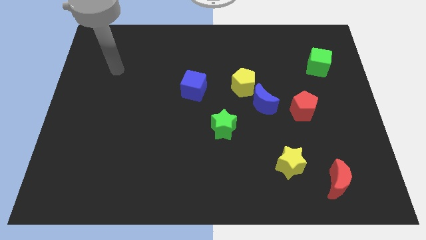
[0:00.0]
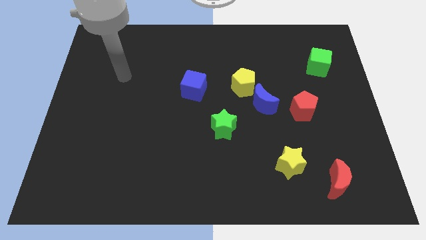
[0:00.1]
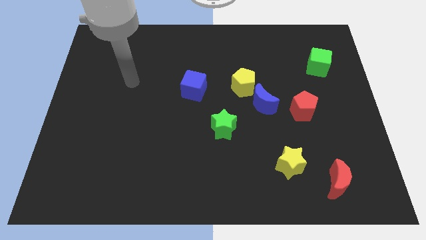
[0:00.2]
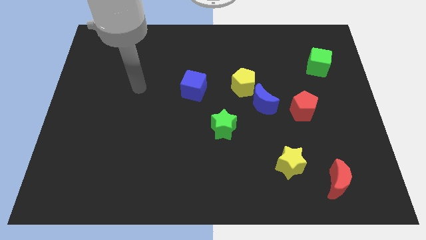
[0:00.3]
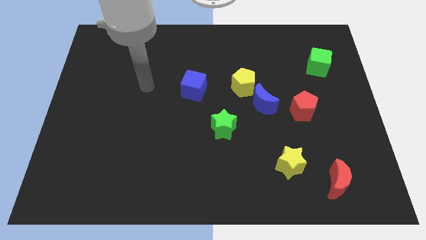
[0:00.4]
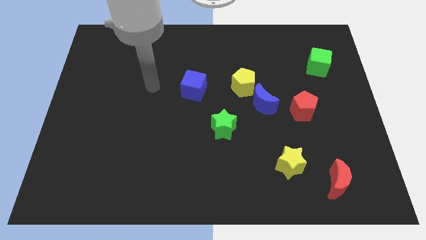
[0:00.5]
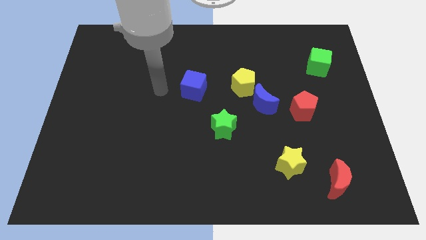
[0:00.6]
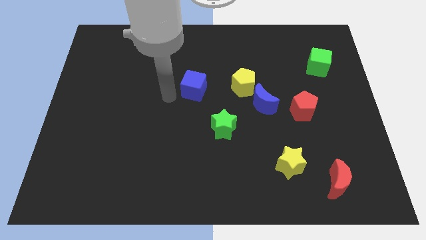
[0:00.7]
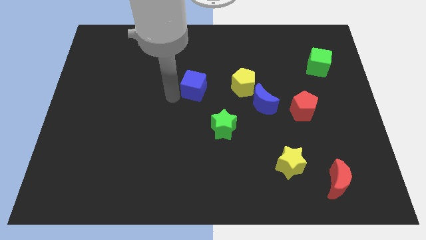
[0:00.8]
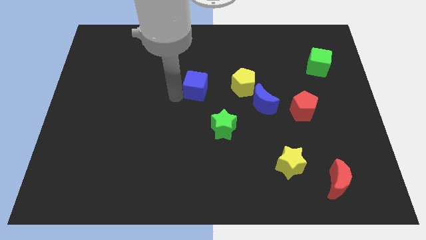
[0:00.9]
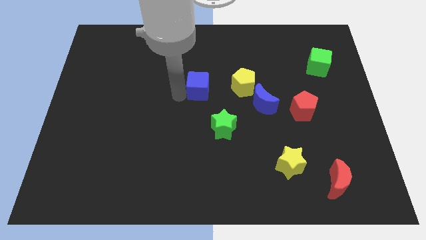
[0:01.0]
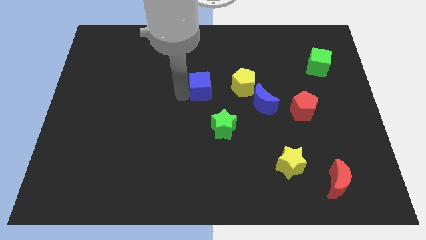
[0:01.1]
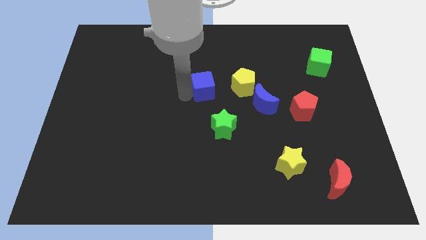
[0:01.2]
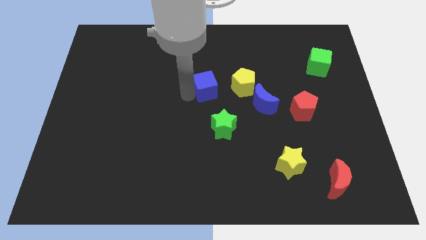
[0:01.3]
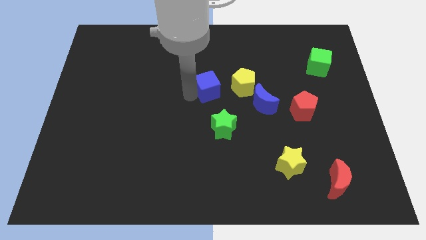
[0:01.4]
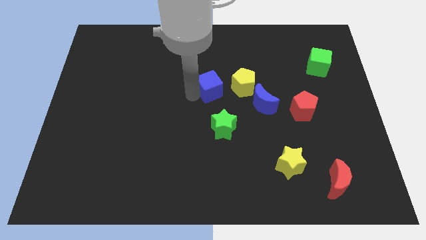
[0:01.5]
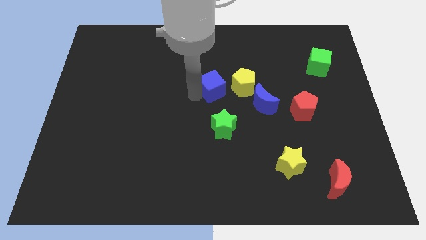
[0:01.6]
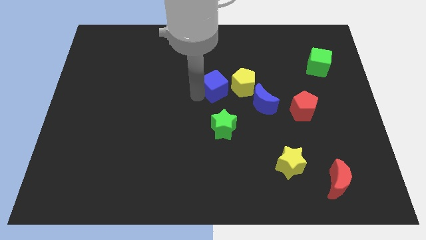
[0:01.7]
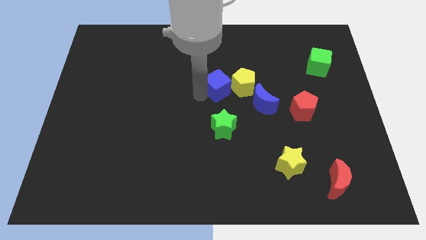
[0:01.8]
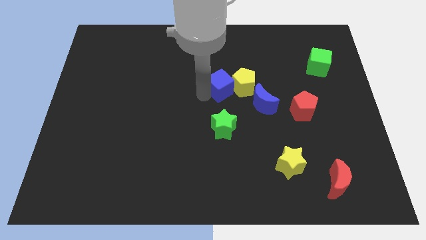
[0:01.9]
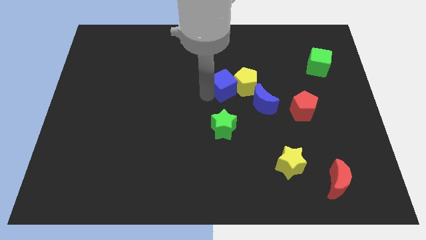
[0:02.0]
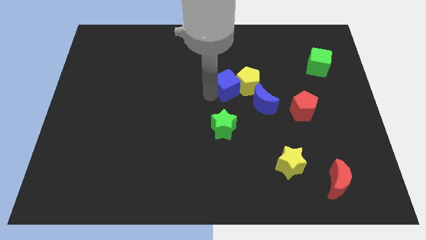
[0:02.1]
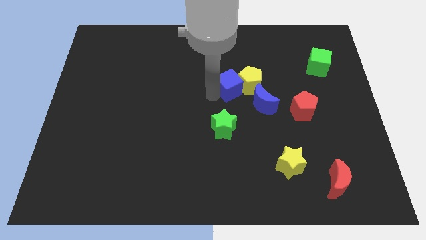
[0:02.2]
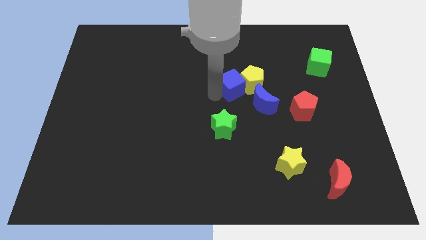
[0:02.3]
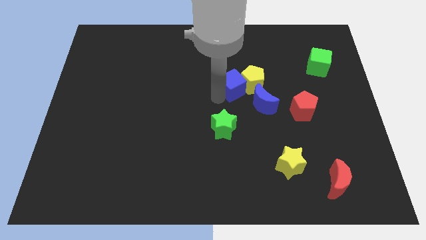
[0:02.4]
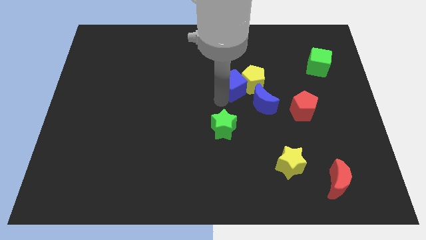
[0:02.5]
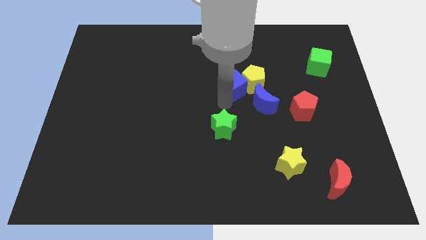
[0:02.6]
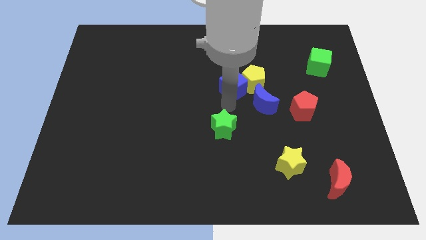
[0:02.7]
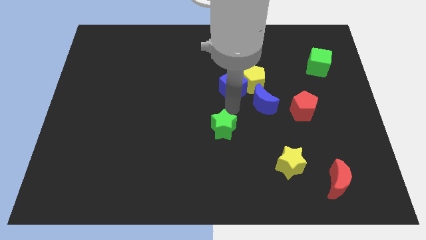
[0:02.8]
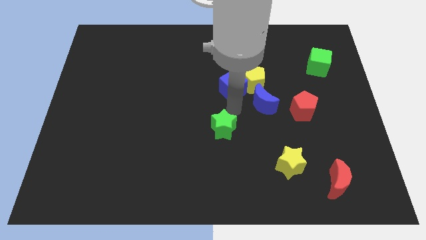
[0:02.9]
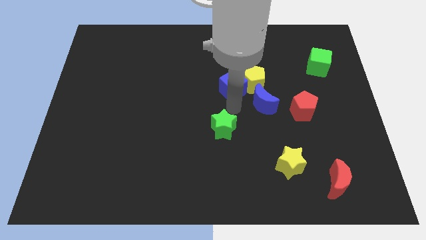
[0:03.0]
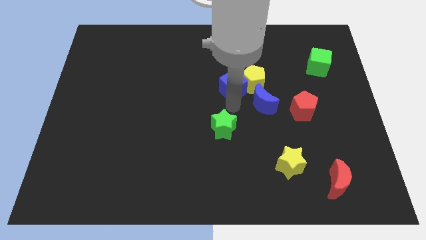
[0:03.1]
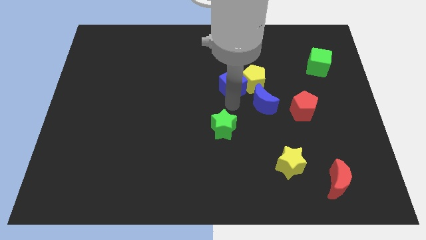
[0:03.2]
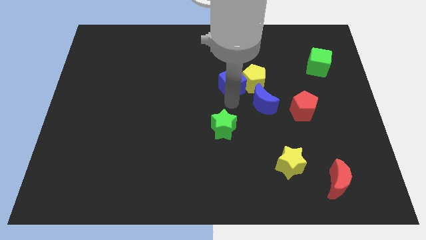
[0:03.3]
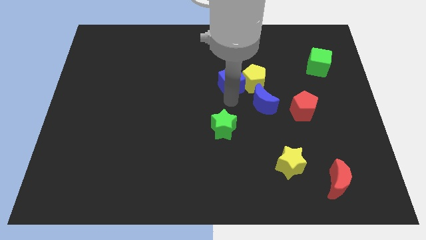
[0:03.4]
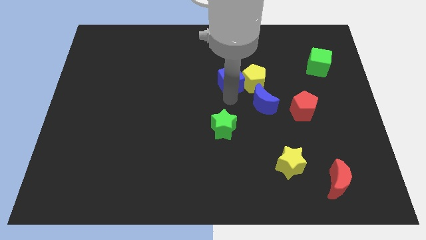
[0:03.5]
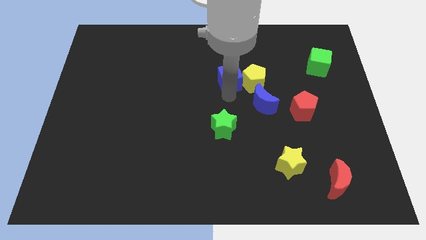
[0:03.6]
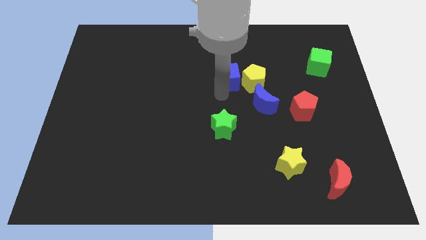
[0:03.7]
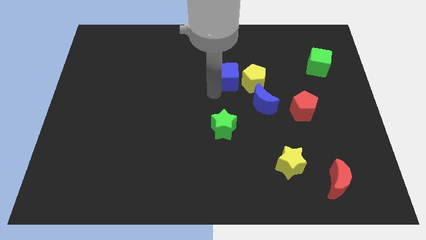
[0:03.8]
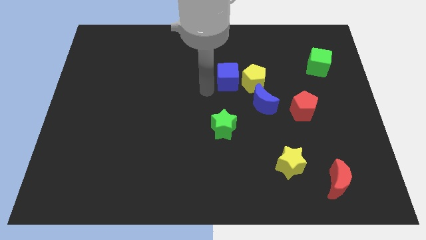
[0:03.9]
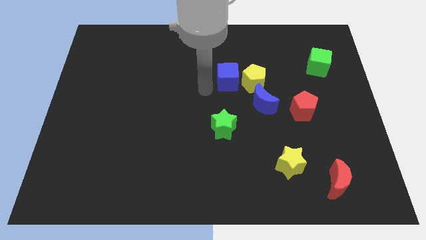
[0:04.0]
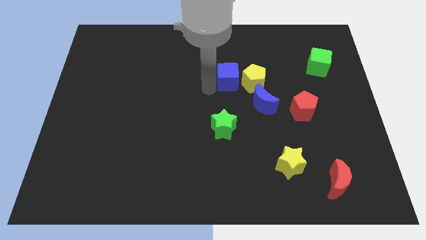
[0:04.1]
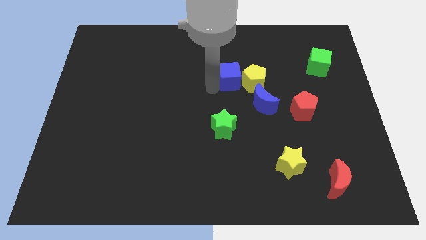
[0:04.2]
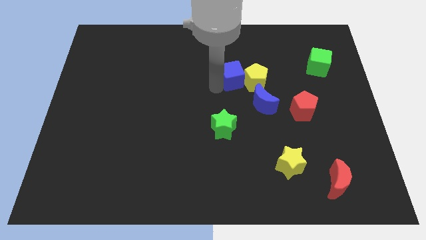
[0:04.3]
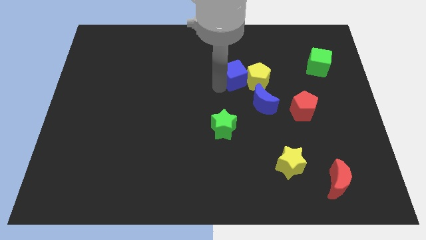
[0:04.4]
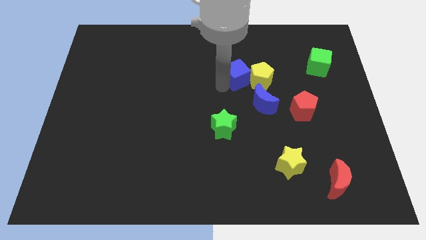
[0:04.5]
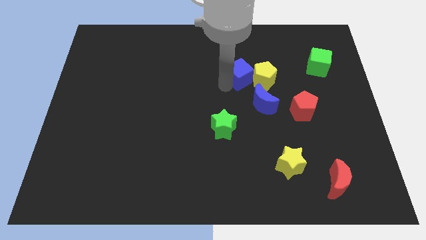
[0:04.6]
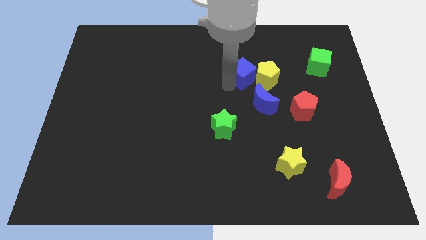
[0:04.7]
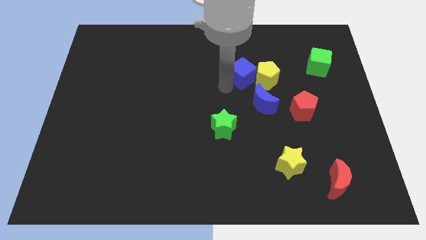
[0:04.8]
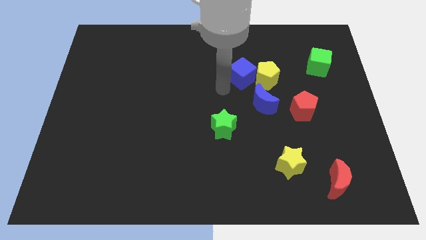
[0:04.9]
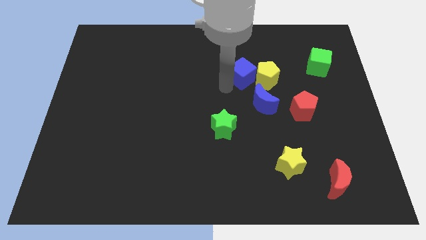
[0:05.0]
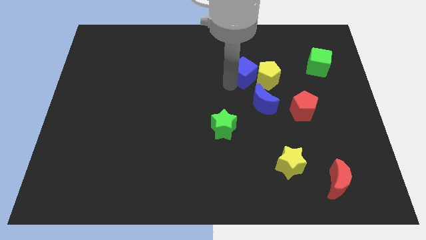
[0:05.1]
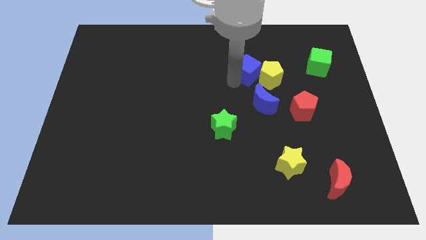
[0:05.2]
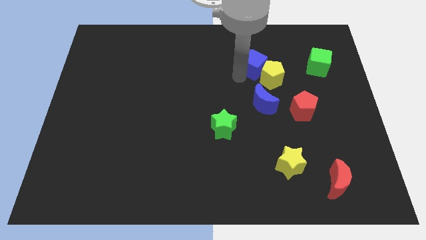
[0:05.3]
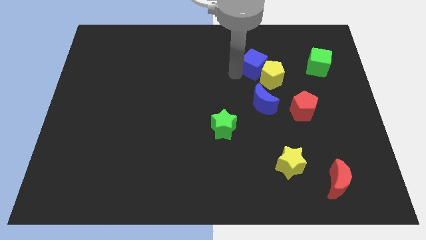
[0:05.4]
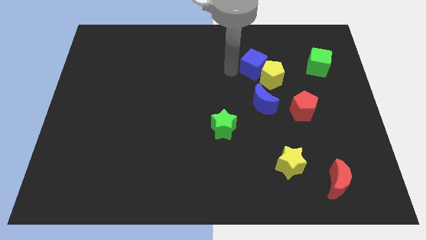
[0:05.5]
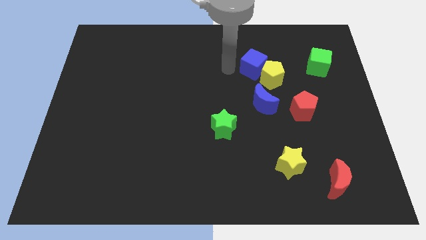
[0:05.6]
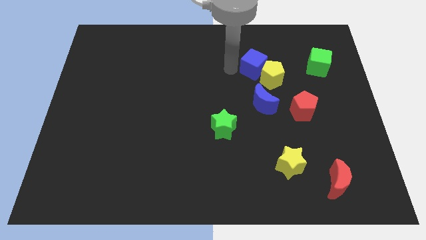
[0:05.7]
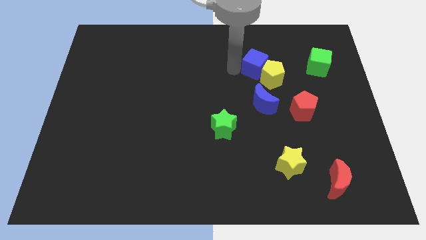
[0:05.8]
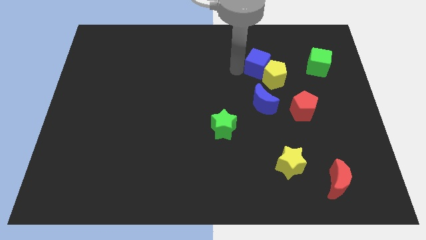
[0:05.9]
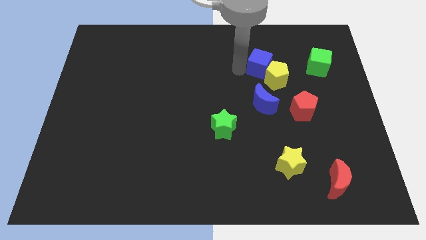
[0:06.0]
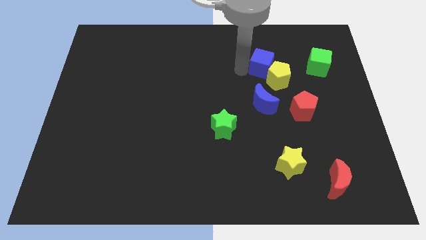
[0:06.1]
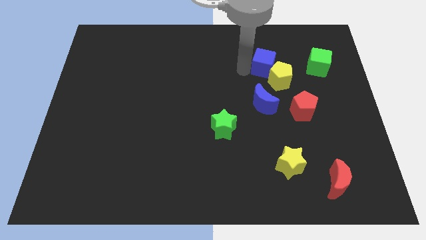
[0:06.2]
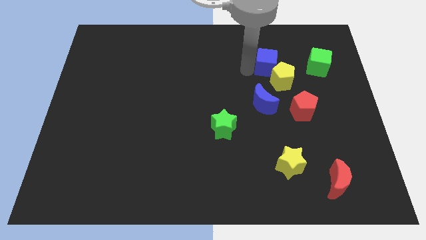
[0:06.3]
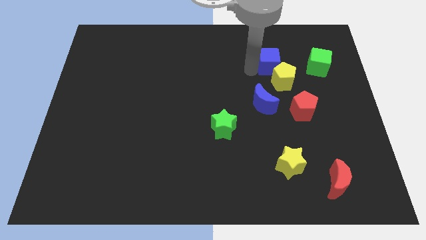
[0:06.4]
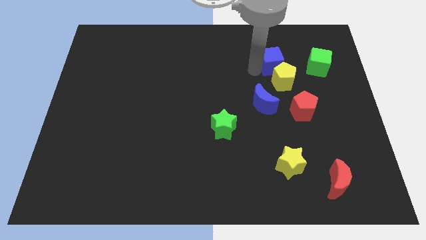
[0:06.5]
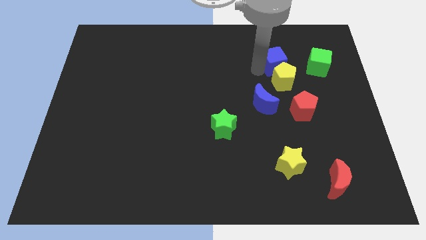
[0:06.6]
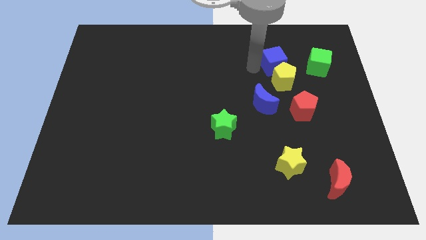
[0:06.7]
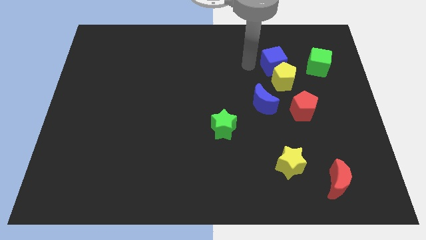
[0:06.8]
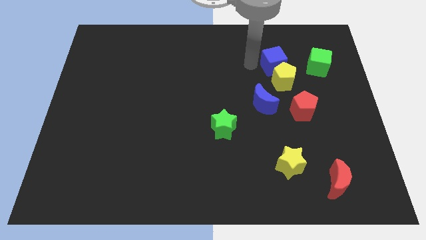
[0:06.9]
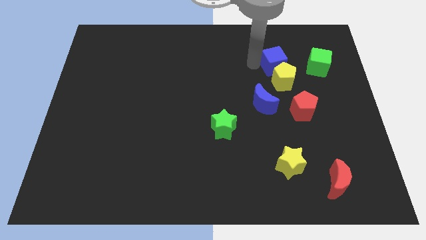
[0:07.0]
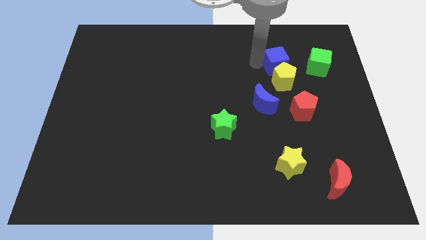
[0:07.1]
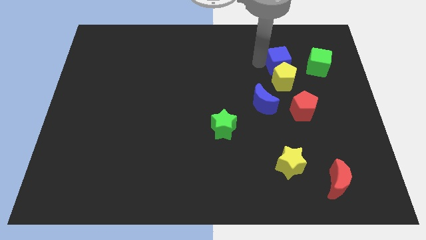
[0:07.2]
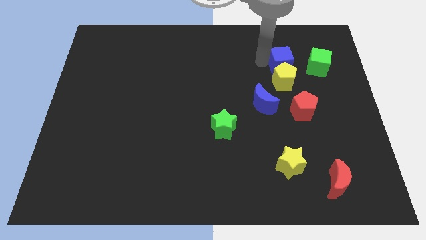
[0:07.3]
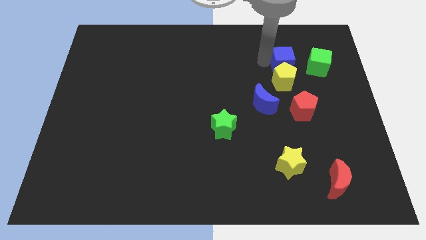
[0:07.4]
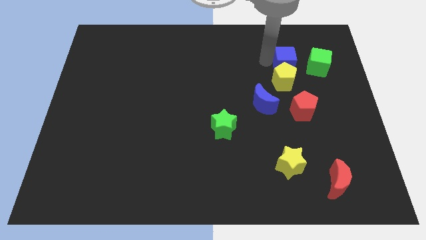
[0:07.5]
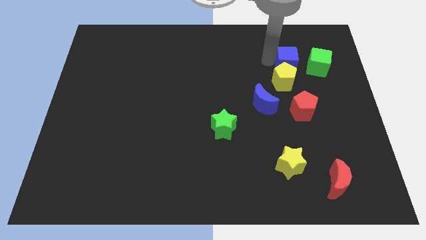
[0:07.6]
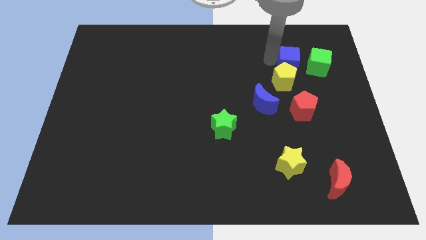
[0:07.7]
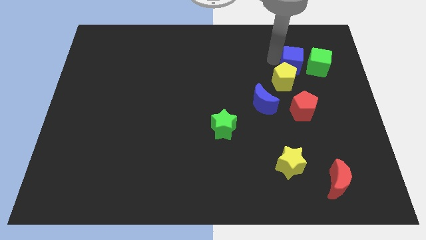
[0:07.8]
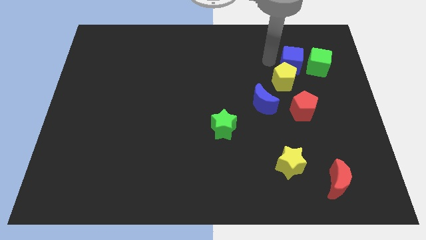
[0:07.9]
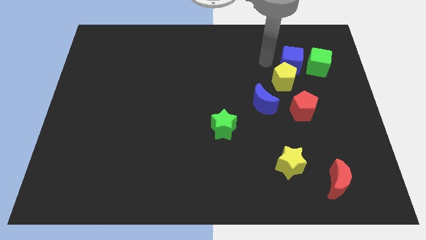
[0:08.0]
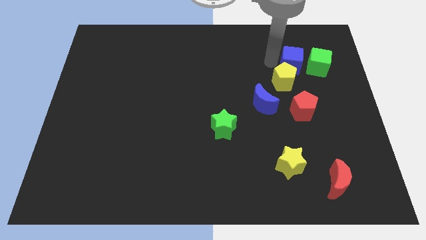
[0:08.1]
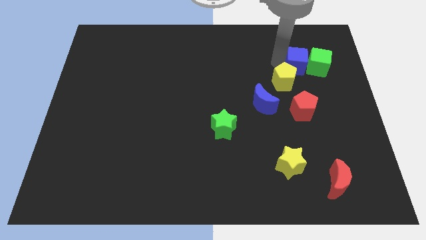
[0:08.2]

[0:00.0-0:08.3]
put the blue cube next to the green cube
